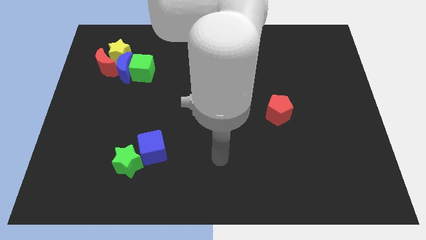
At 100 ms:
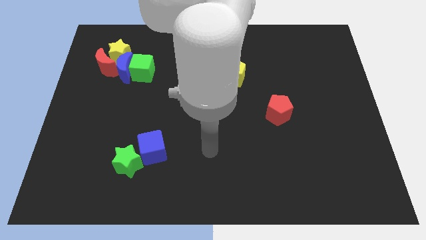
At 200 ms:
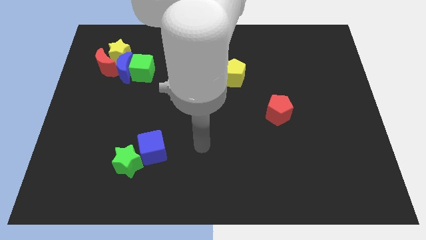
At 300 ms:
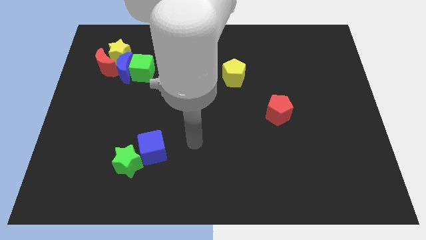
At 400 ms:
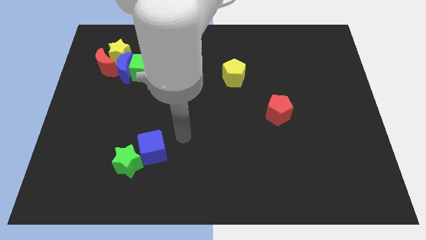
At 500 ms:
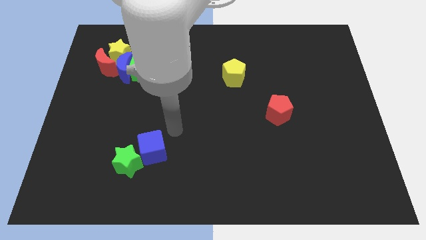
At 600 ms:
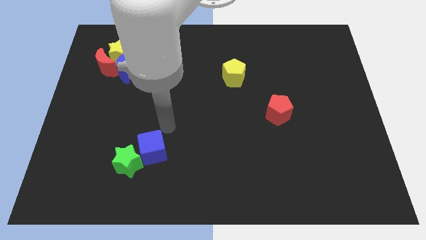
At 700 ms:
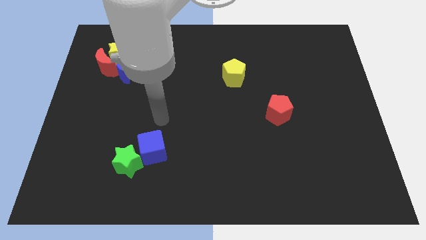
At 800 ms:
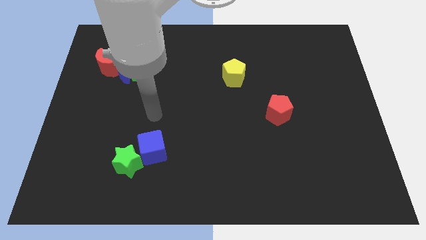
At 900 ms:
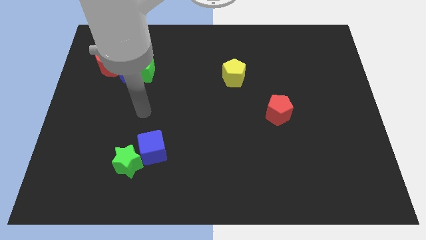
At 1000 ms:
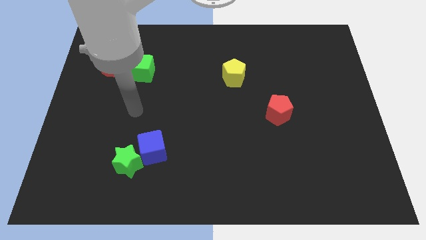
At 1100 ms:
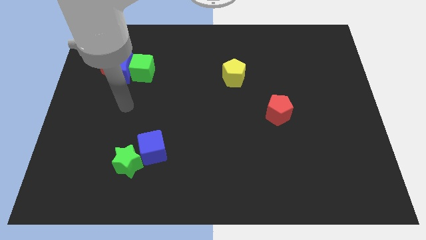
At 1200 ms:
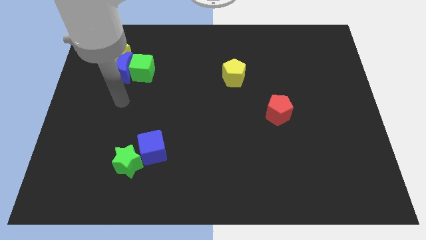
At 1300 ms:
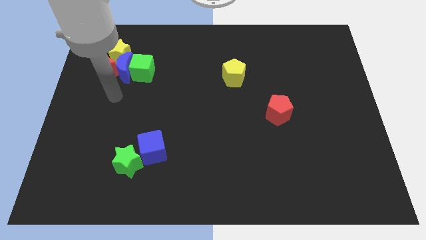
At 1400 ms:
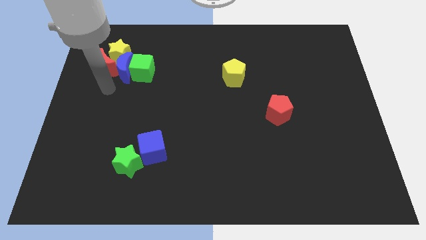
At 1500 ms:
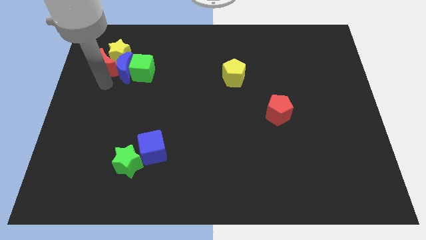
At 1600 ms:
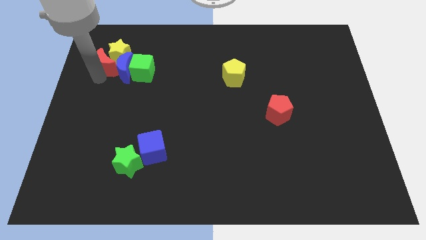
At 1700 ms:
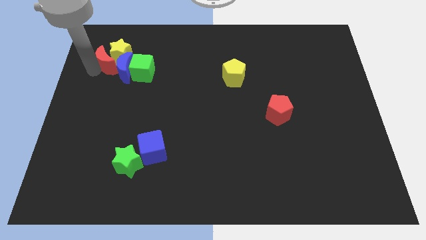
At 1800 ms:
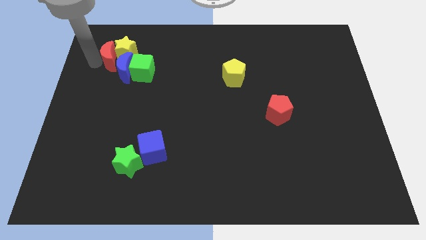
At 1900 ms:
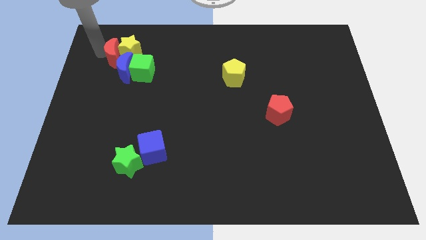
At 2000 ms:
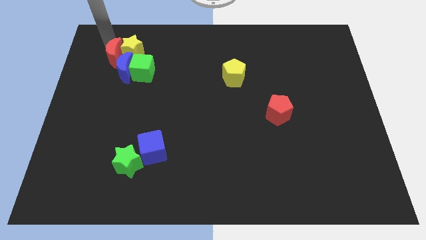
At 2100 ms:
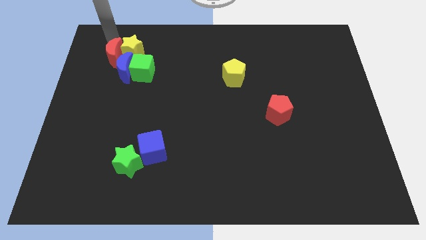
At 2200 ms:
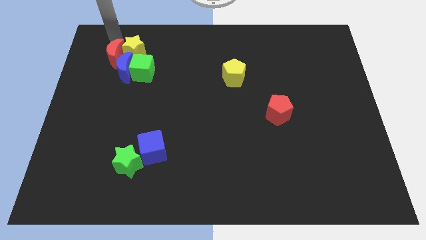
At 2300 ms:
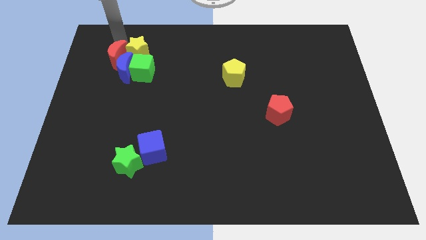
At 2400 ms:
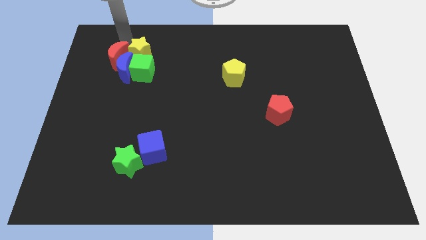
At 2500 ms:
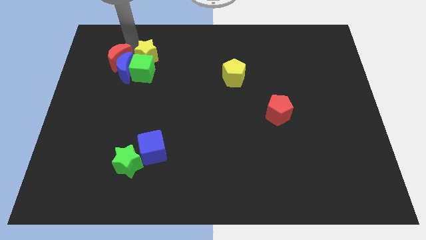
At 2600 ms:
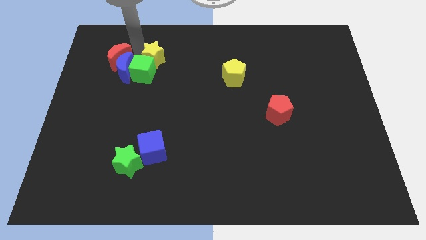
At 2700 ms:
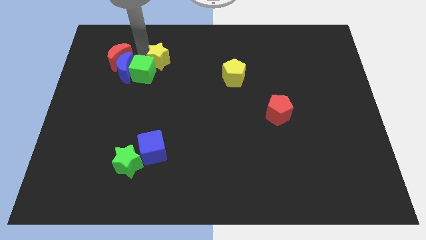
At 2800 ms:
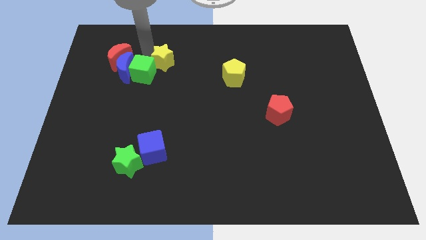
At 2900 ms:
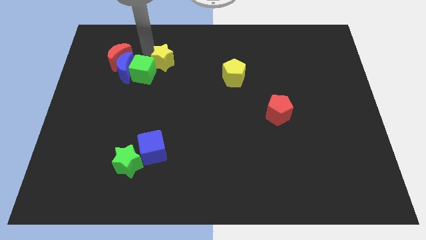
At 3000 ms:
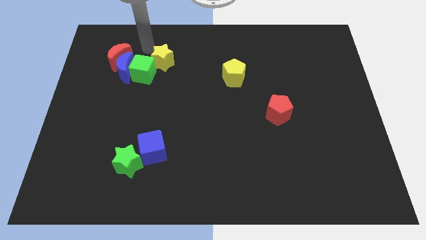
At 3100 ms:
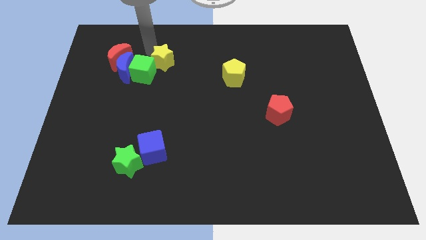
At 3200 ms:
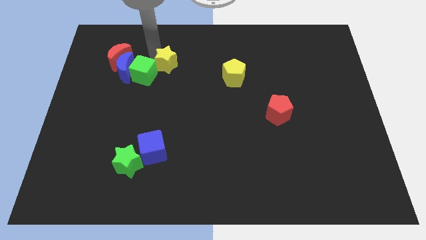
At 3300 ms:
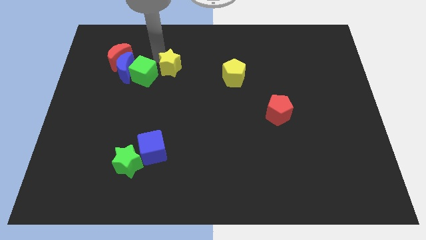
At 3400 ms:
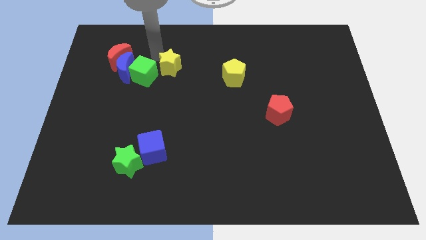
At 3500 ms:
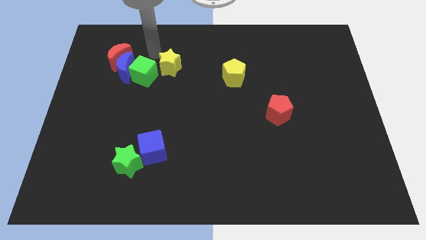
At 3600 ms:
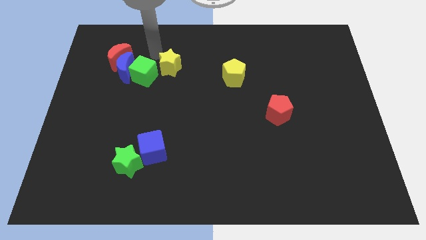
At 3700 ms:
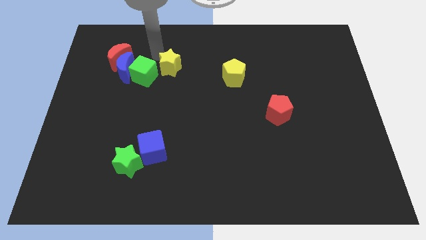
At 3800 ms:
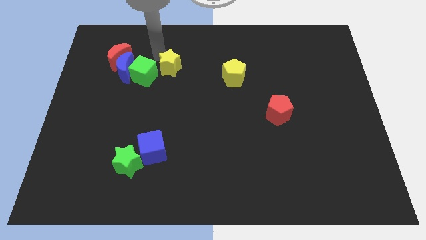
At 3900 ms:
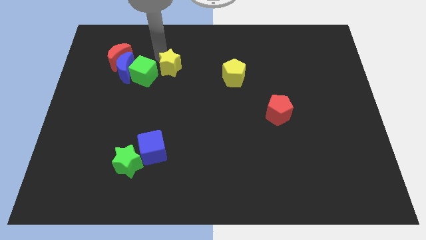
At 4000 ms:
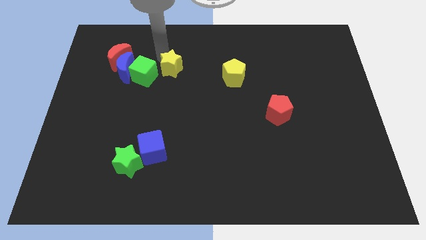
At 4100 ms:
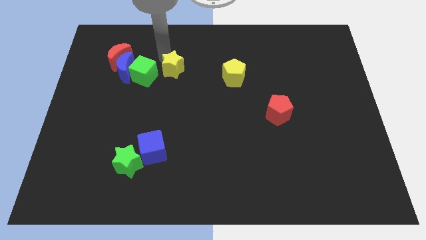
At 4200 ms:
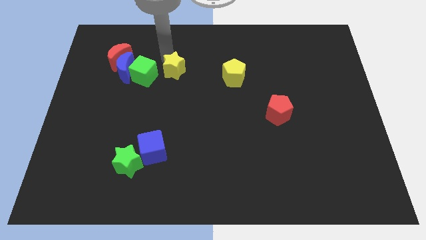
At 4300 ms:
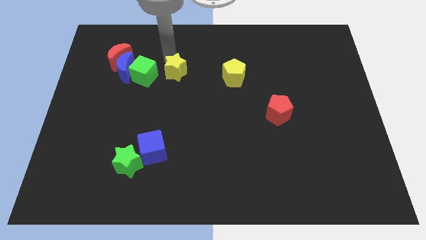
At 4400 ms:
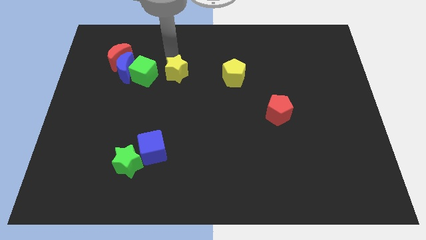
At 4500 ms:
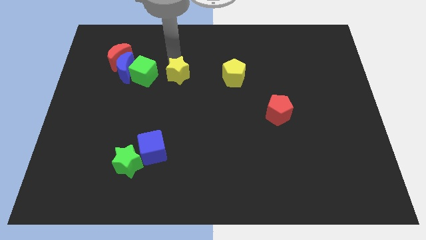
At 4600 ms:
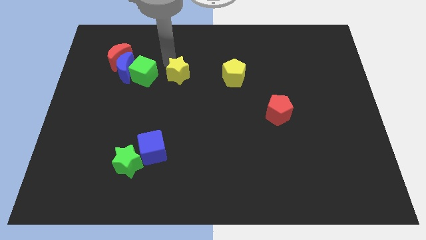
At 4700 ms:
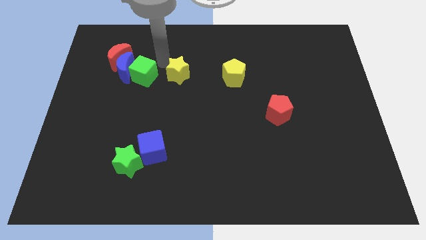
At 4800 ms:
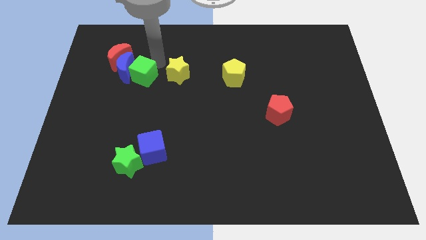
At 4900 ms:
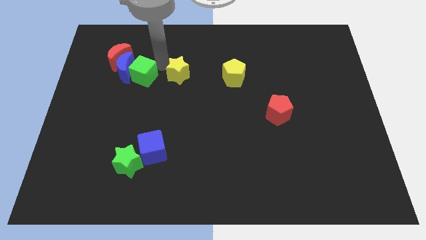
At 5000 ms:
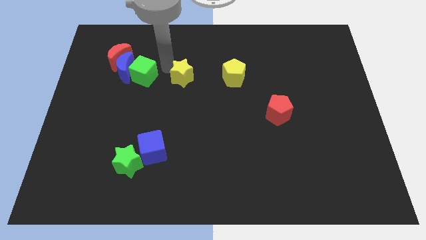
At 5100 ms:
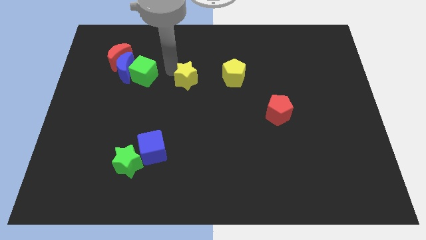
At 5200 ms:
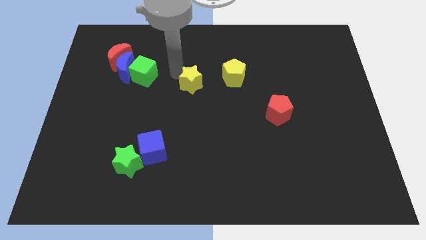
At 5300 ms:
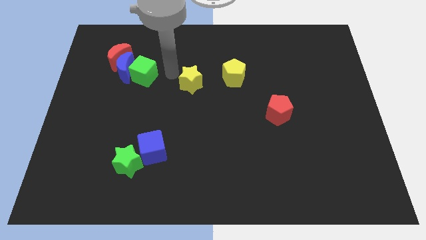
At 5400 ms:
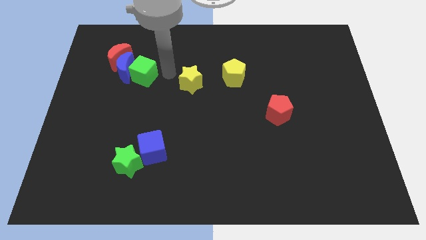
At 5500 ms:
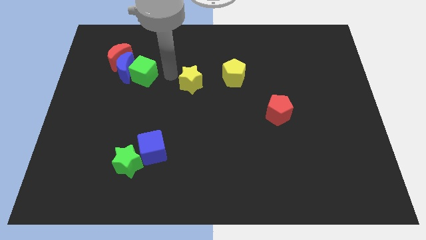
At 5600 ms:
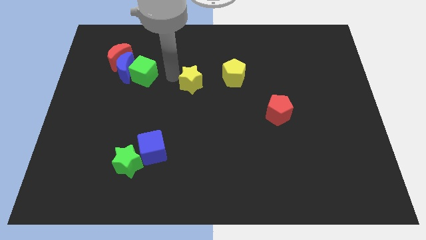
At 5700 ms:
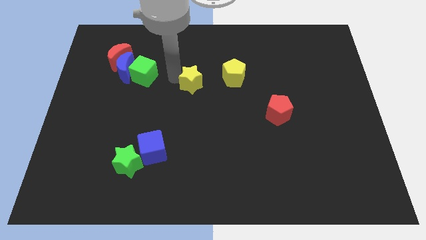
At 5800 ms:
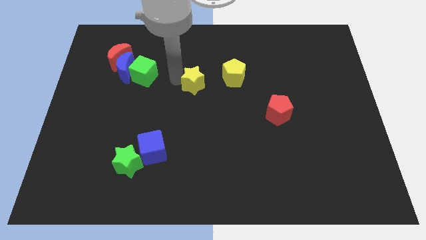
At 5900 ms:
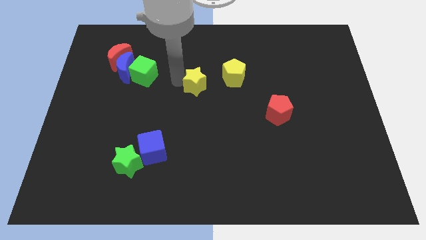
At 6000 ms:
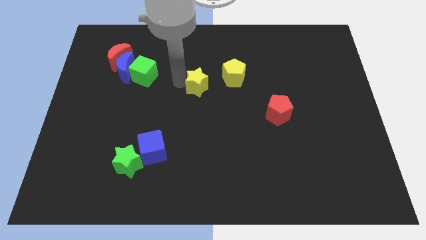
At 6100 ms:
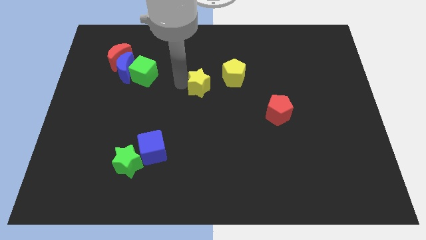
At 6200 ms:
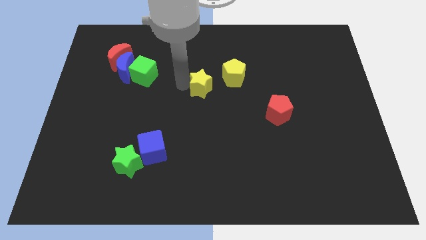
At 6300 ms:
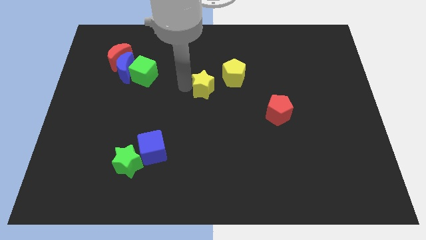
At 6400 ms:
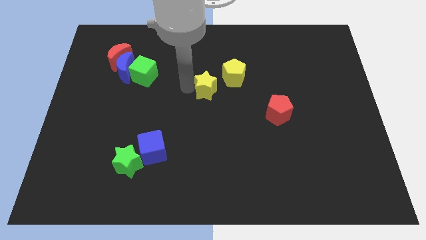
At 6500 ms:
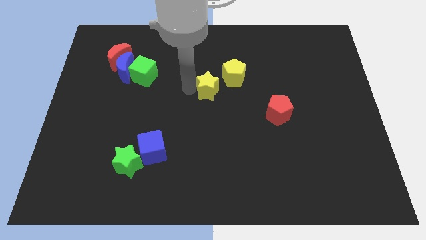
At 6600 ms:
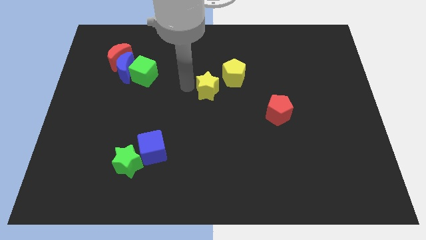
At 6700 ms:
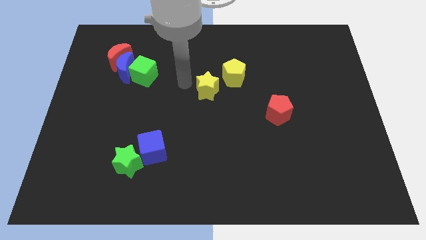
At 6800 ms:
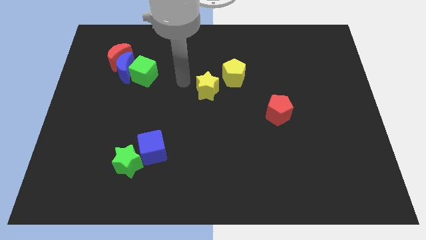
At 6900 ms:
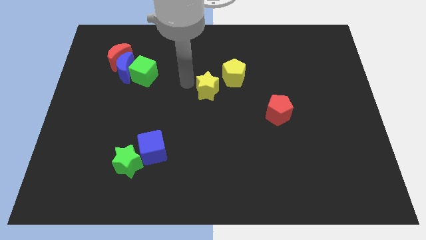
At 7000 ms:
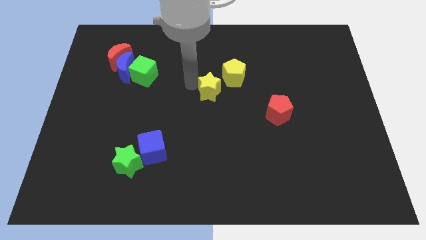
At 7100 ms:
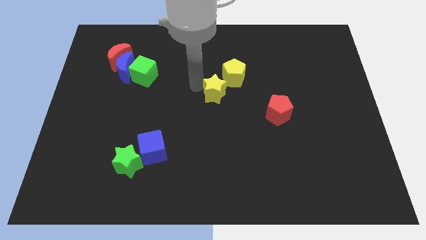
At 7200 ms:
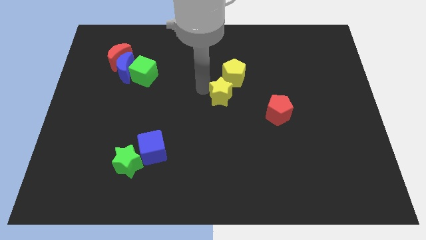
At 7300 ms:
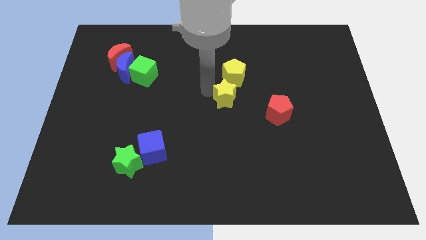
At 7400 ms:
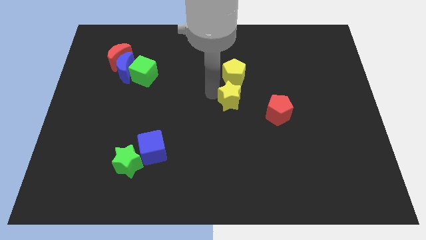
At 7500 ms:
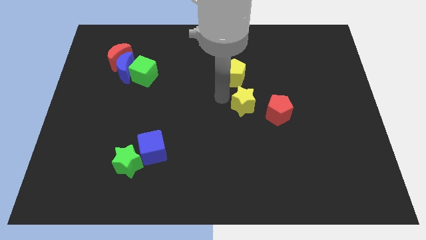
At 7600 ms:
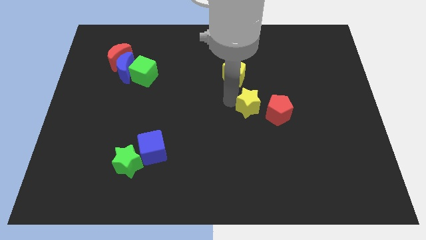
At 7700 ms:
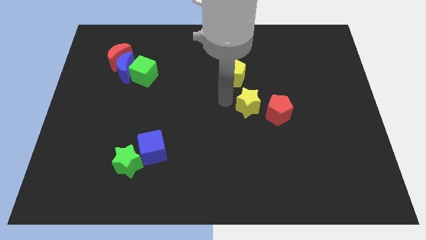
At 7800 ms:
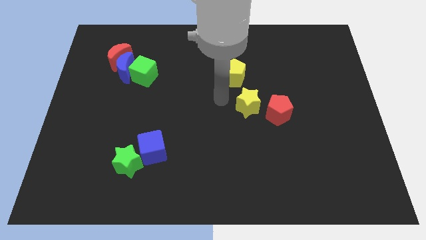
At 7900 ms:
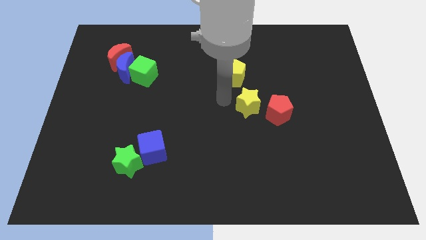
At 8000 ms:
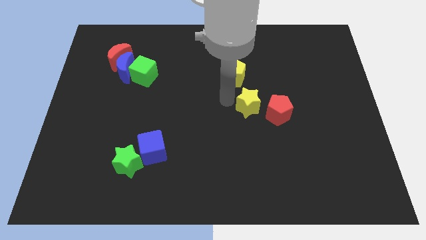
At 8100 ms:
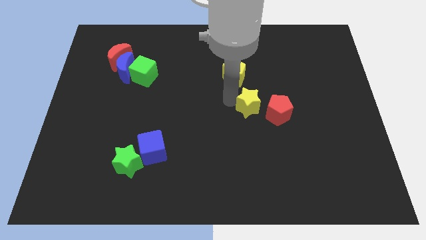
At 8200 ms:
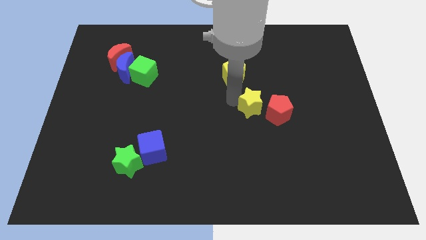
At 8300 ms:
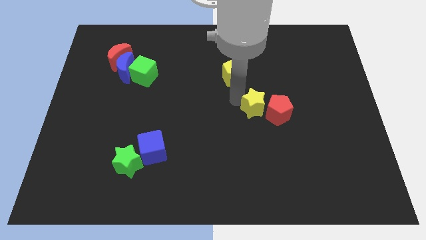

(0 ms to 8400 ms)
put the yellow star to the red pentagon
